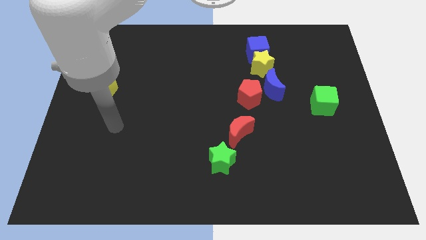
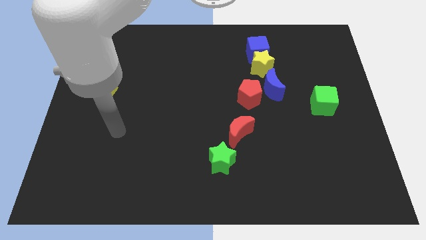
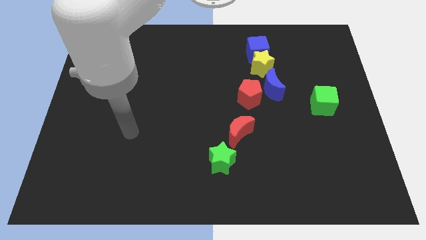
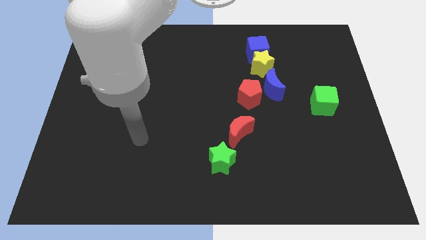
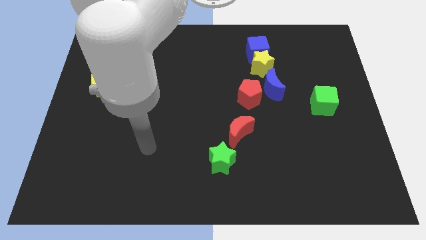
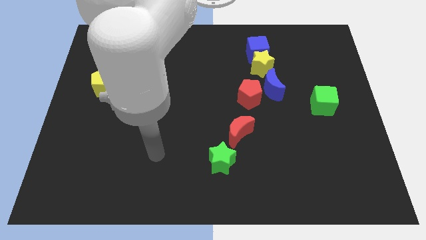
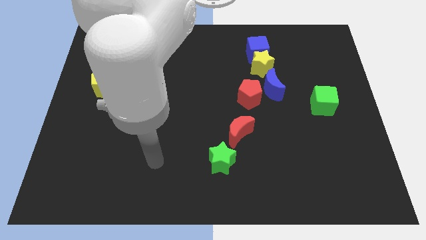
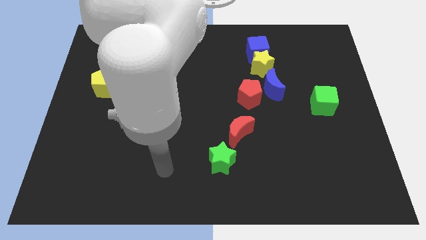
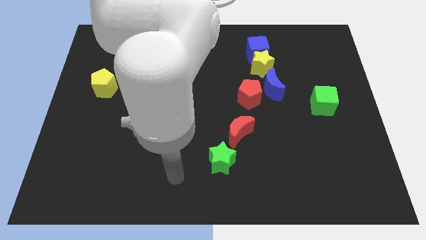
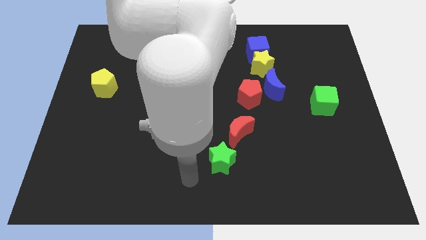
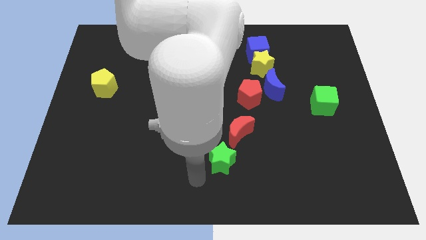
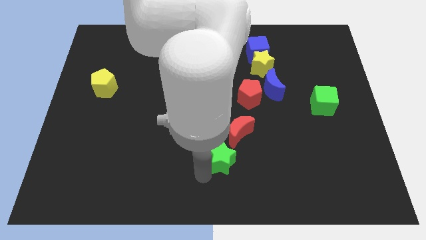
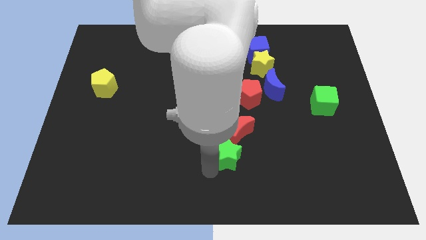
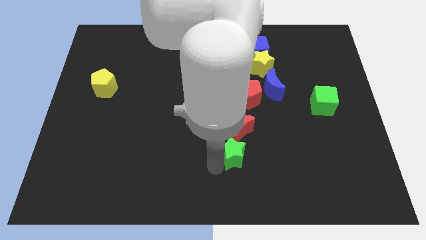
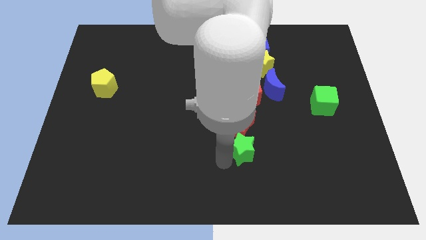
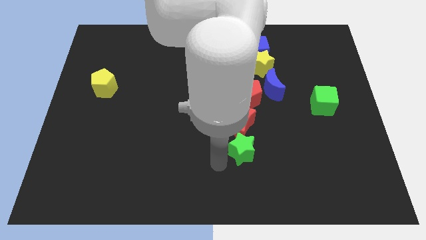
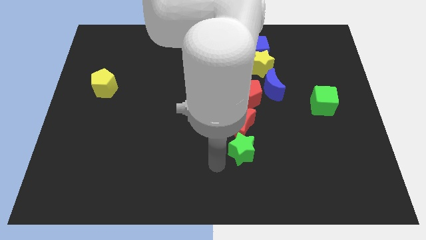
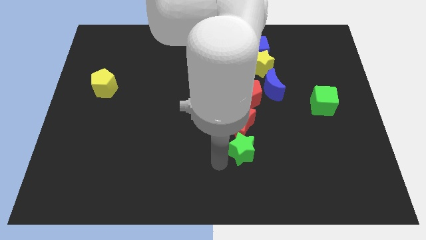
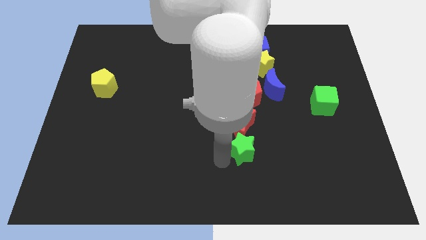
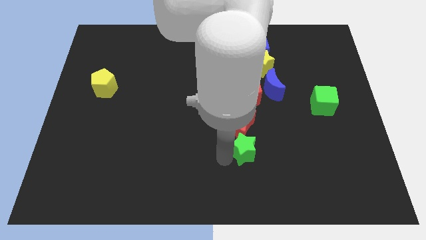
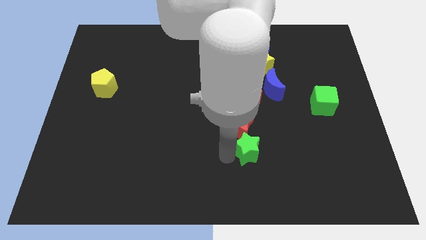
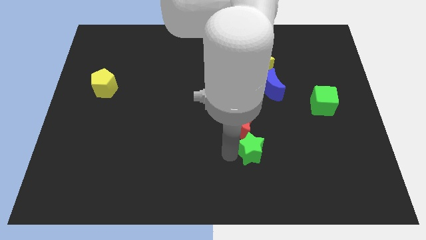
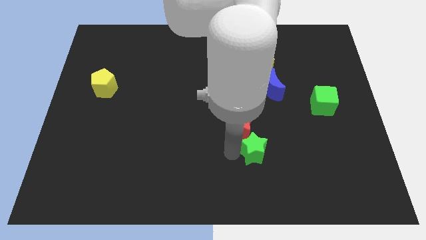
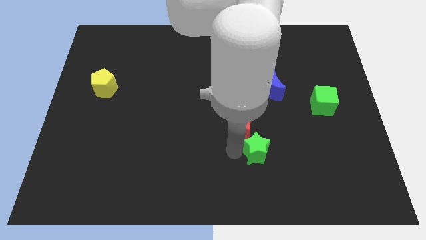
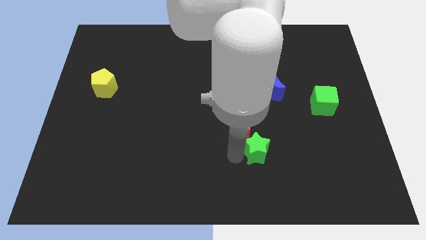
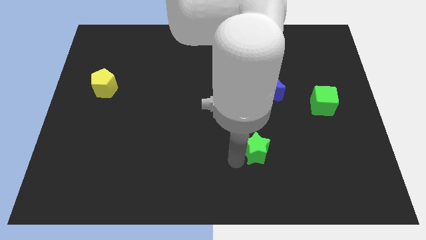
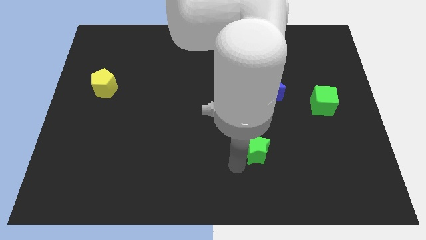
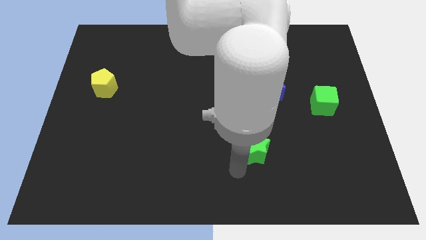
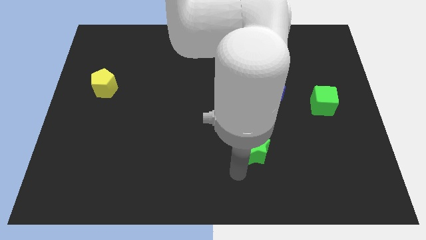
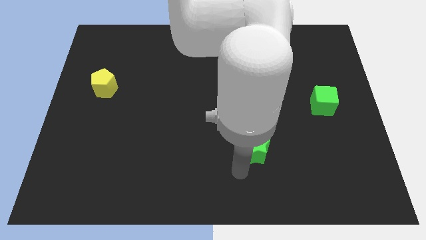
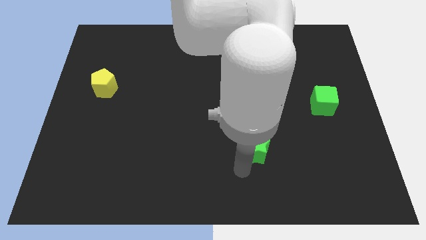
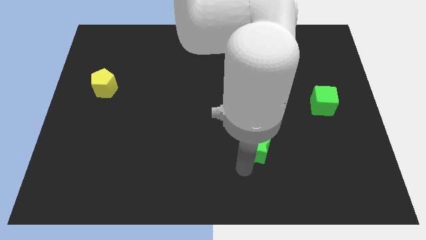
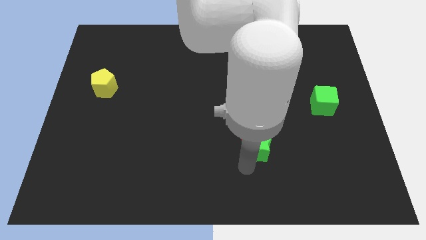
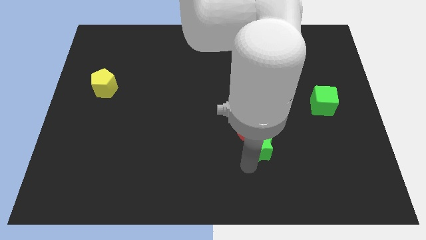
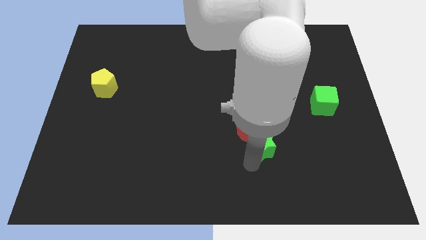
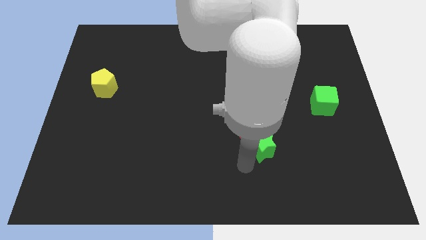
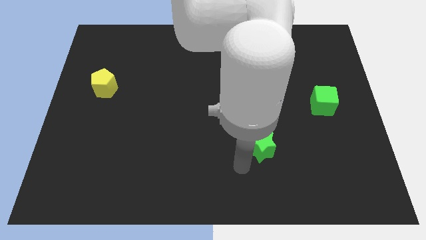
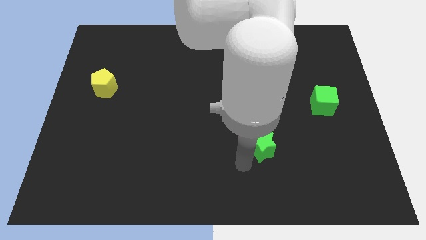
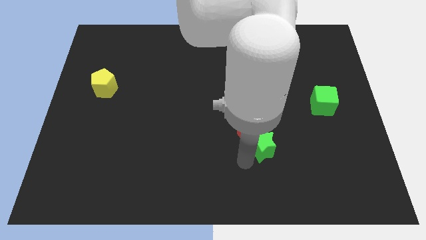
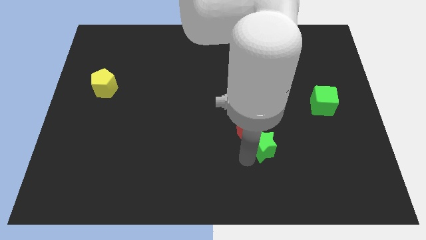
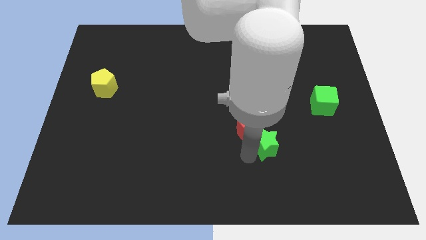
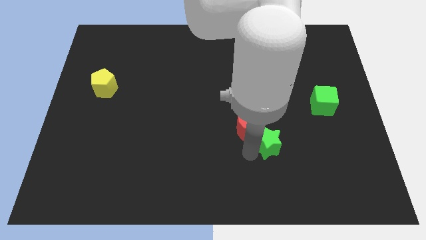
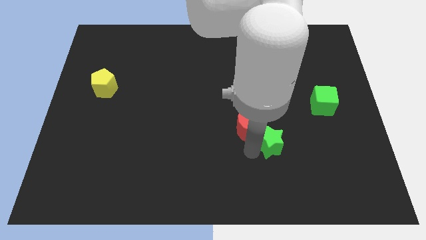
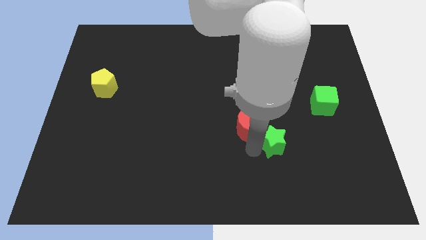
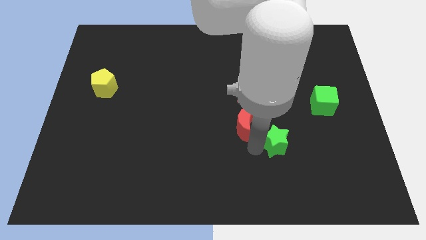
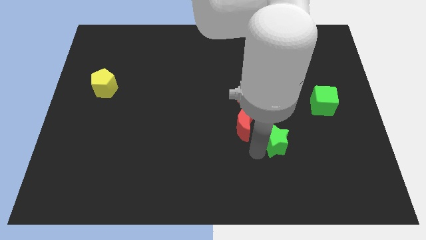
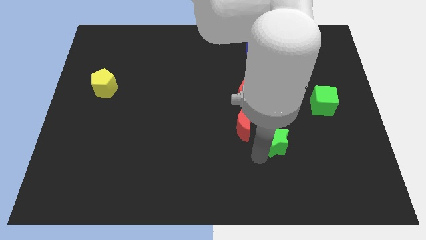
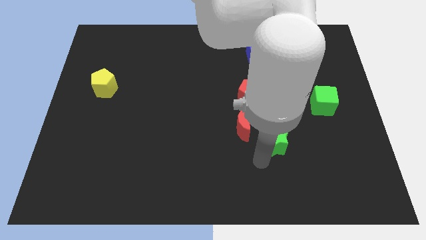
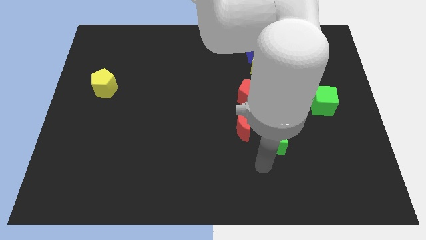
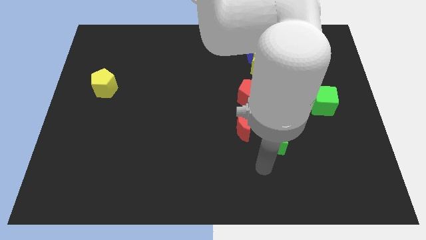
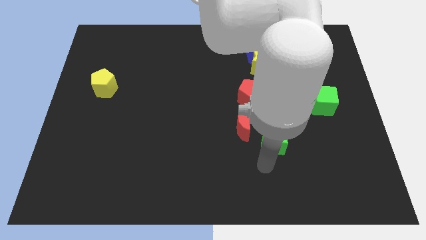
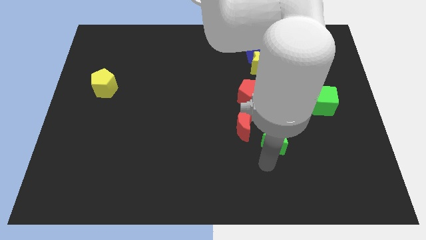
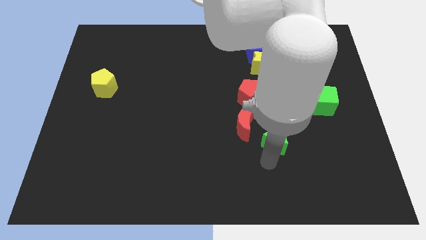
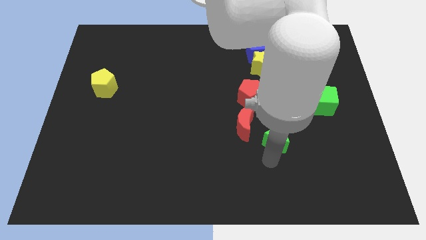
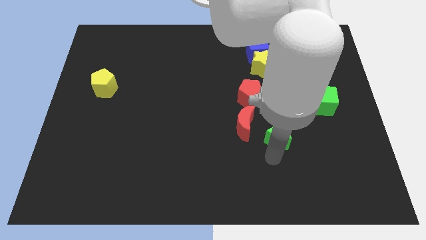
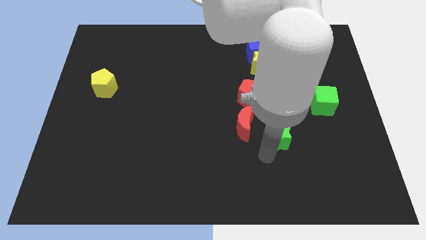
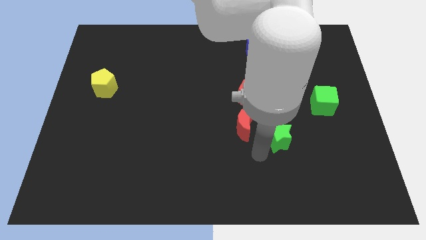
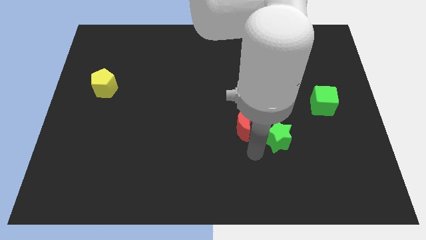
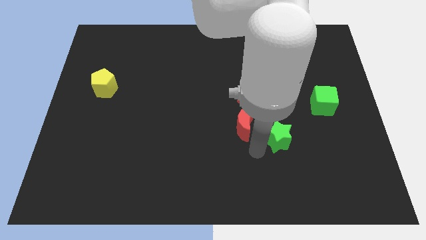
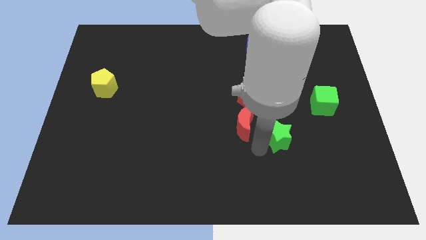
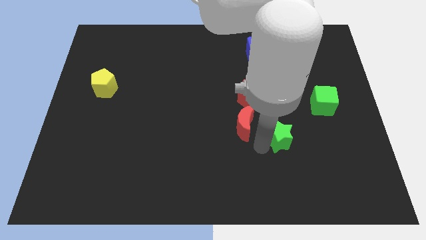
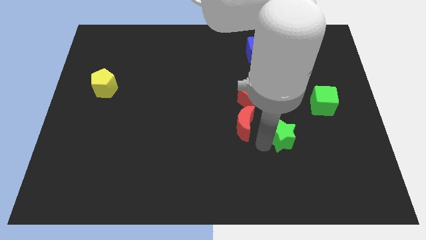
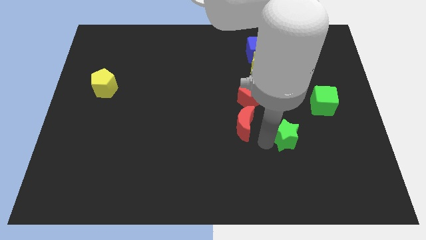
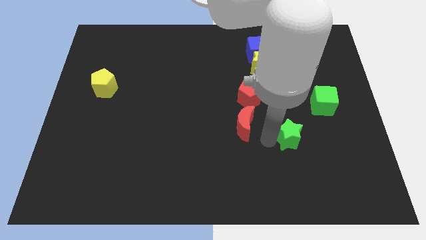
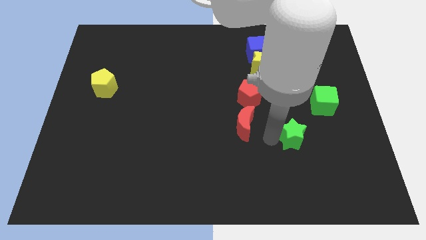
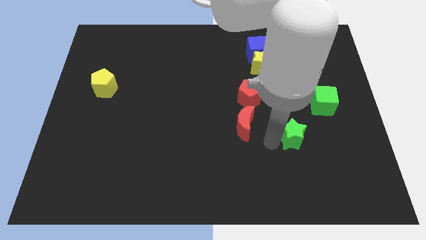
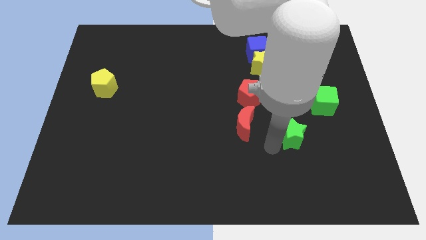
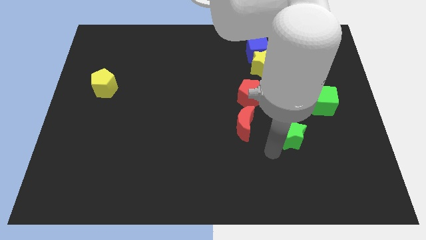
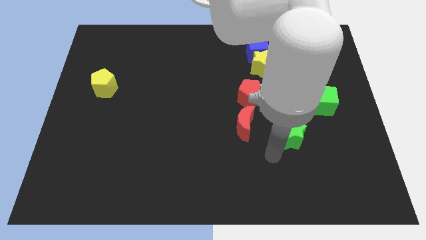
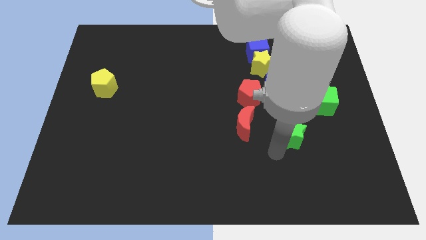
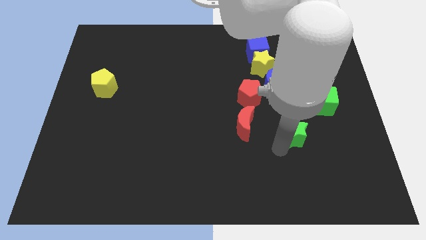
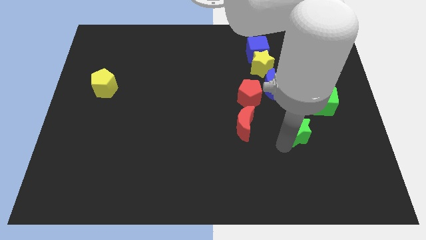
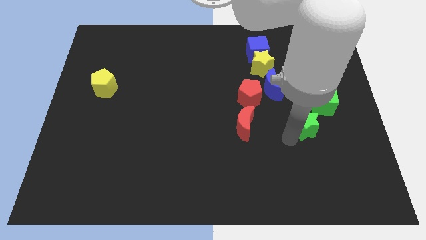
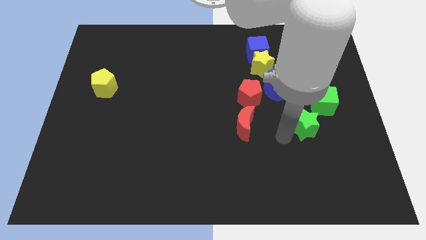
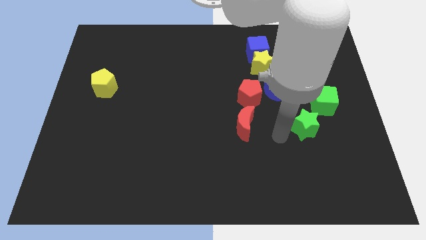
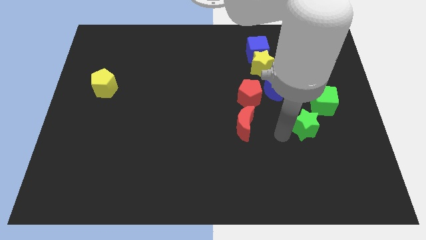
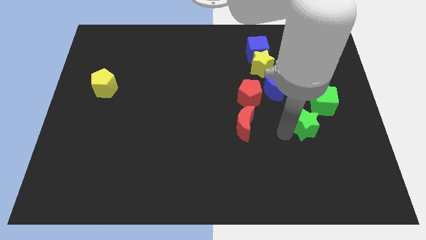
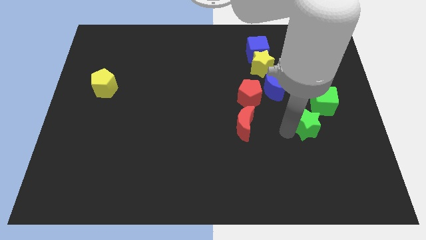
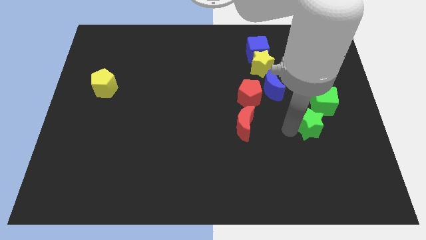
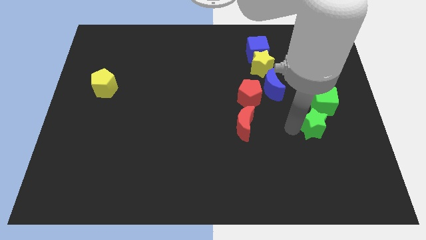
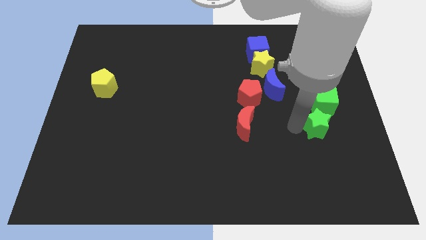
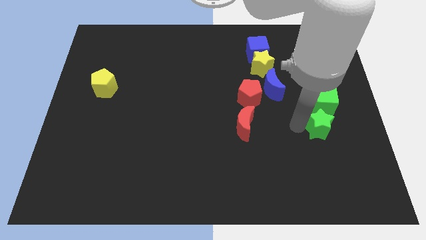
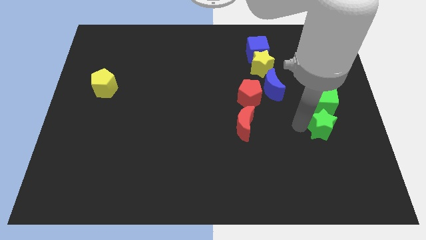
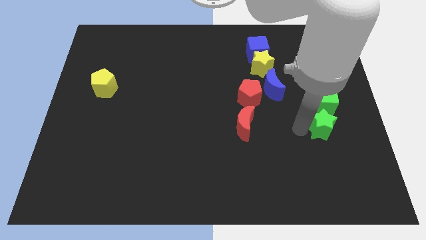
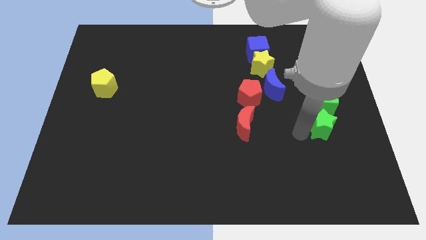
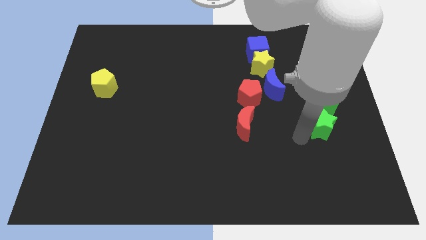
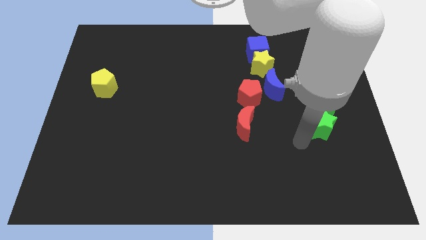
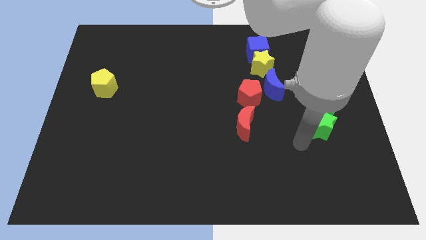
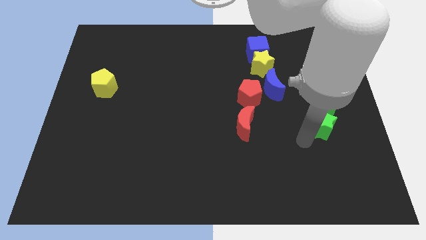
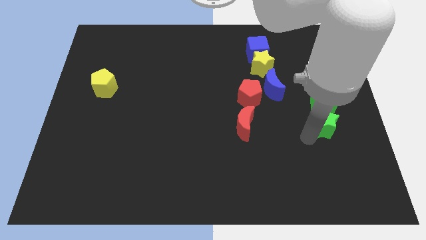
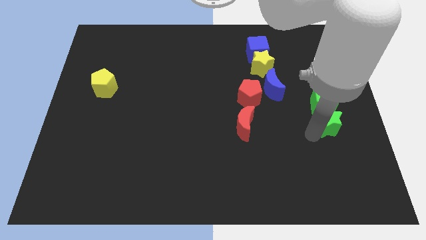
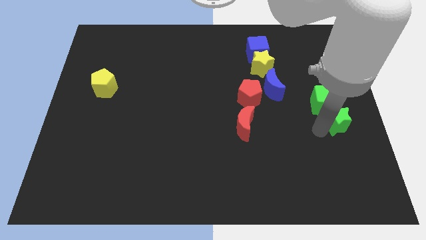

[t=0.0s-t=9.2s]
push the green star to the center right
